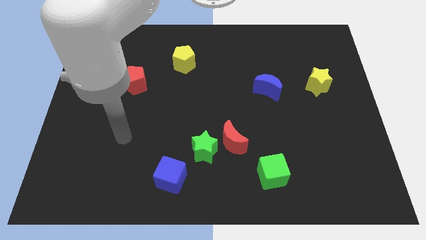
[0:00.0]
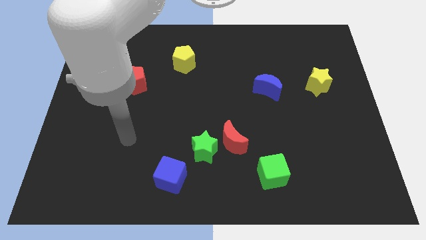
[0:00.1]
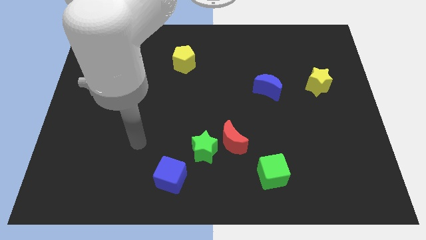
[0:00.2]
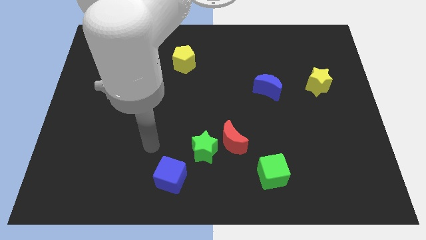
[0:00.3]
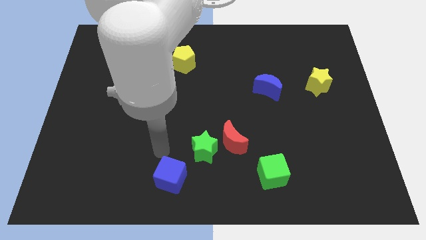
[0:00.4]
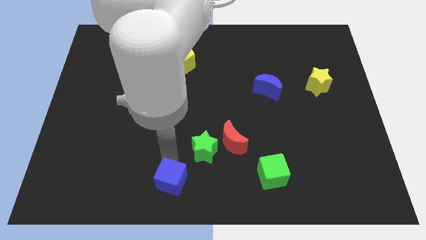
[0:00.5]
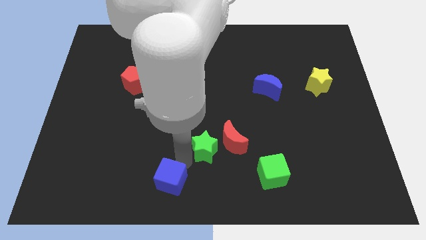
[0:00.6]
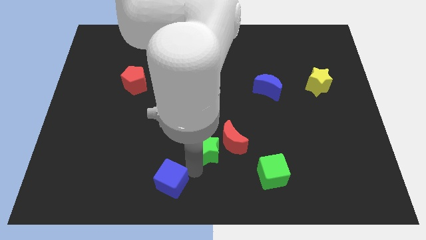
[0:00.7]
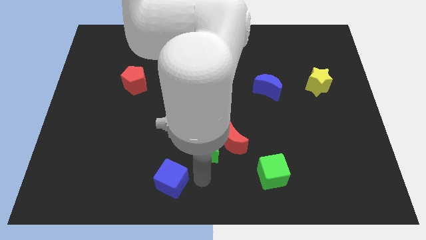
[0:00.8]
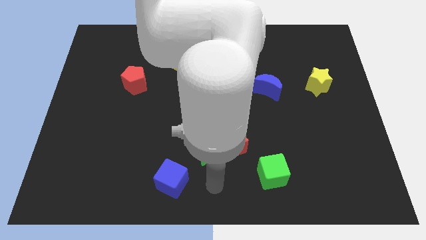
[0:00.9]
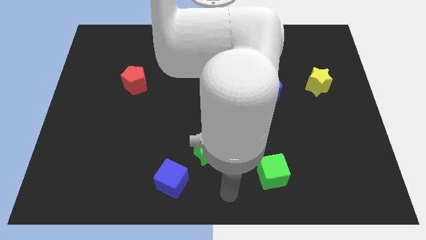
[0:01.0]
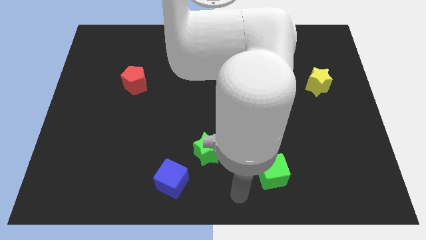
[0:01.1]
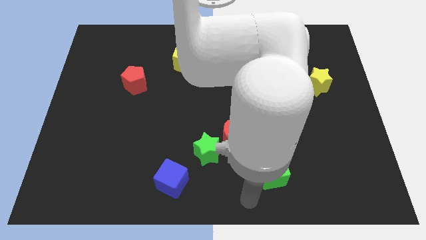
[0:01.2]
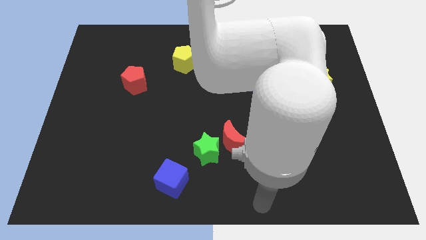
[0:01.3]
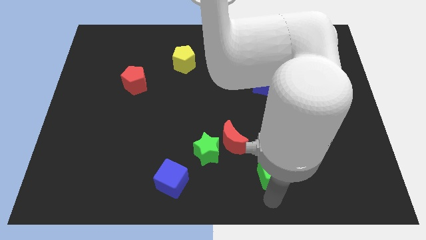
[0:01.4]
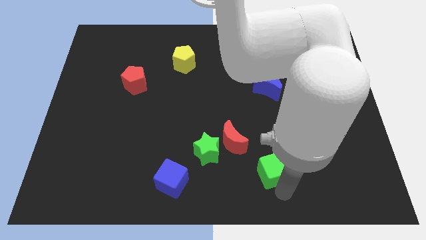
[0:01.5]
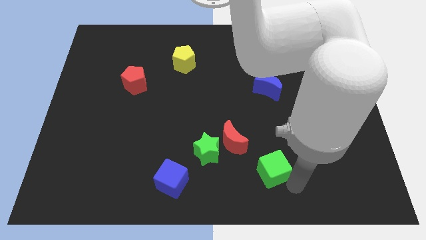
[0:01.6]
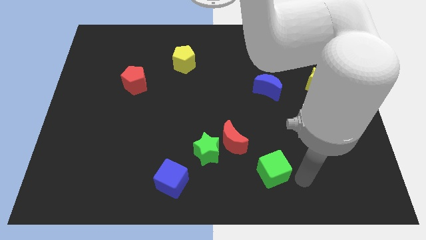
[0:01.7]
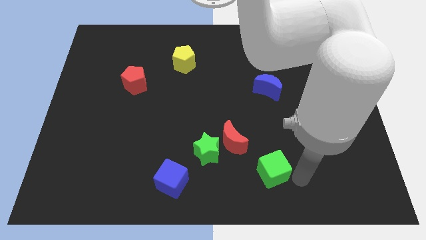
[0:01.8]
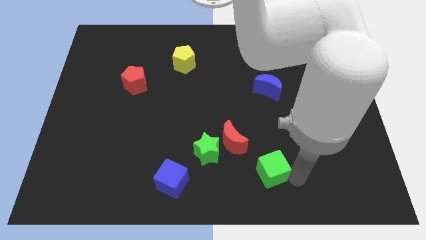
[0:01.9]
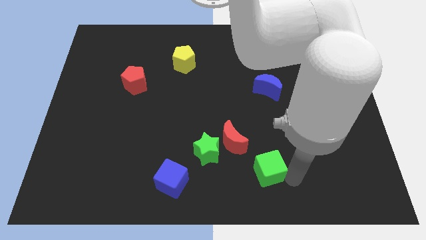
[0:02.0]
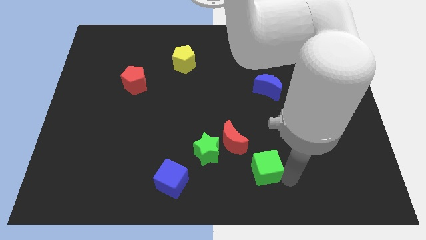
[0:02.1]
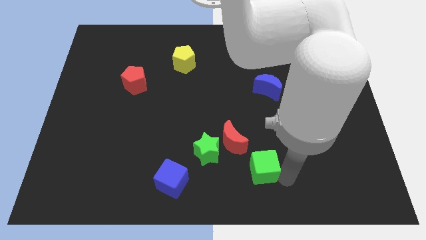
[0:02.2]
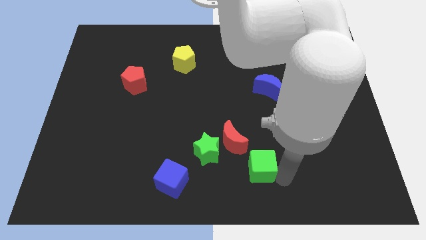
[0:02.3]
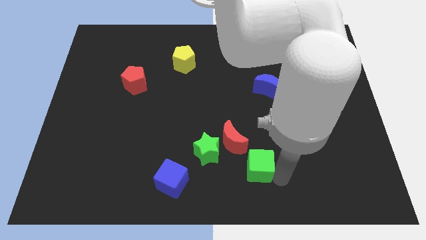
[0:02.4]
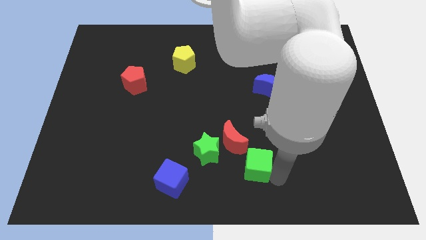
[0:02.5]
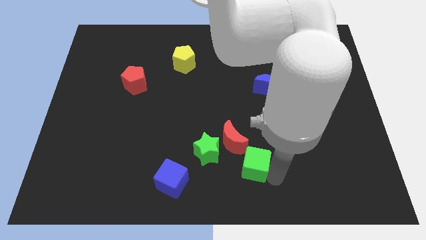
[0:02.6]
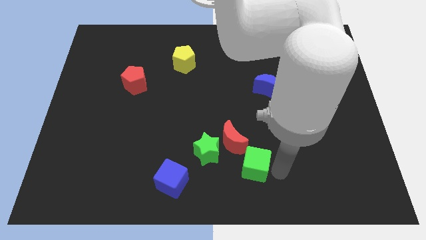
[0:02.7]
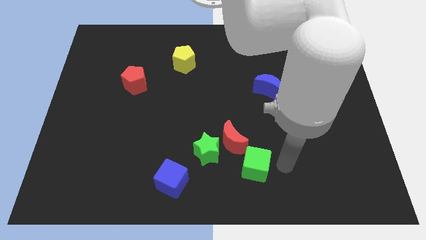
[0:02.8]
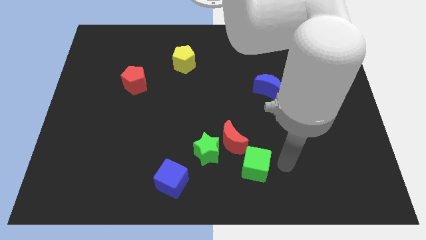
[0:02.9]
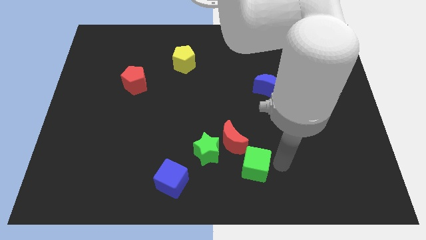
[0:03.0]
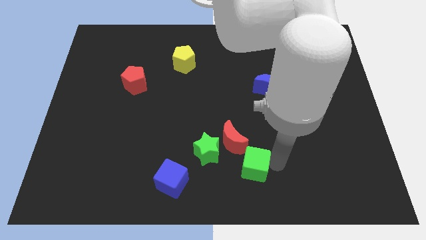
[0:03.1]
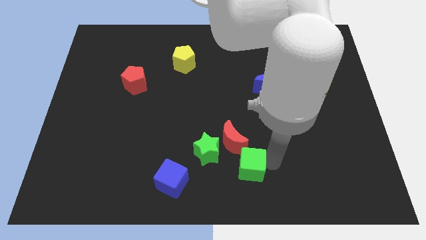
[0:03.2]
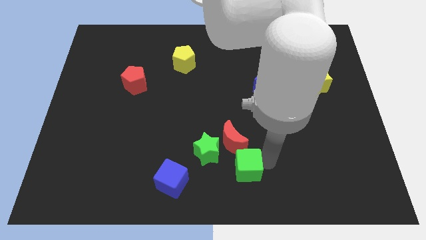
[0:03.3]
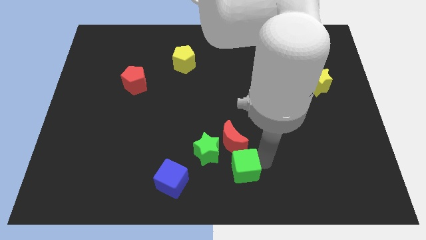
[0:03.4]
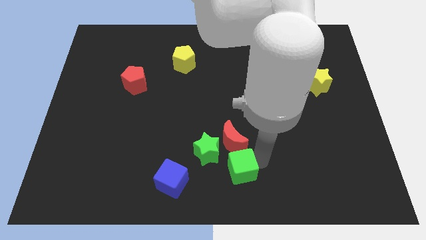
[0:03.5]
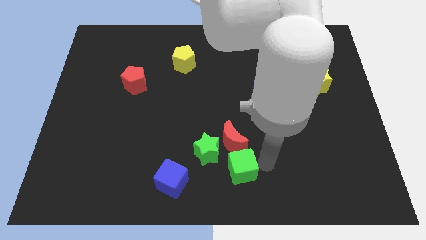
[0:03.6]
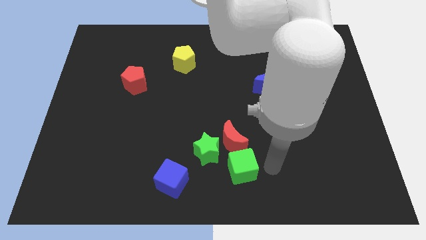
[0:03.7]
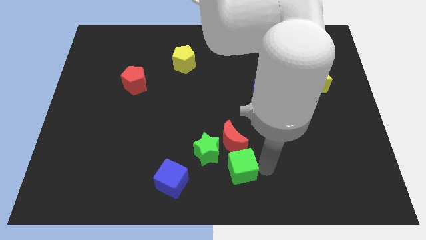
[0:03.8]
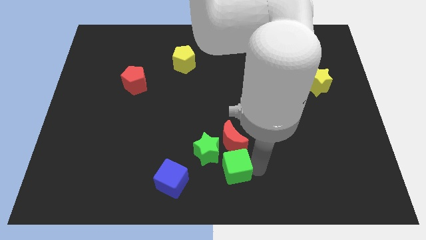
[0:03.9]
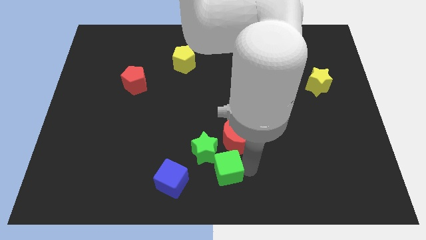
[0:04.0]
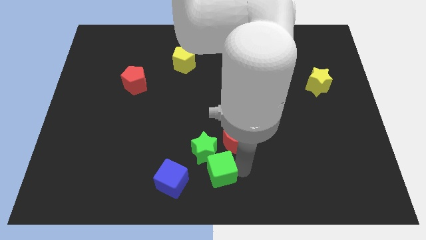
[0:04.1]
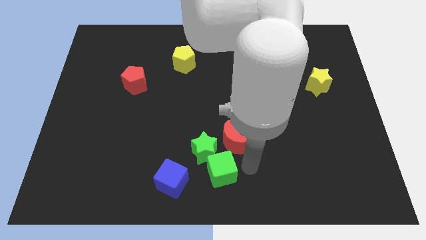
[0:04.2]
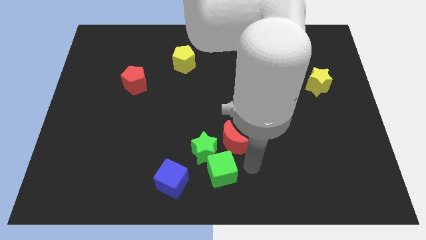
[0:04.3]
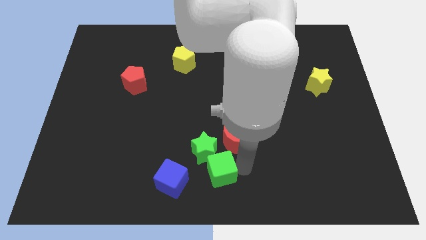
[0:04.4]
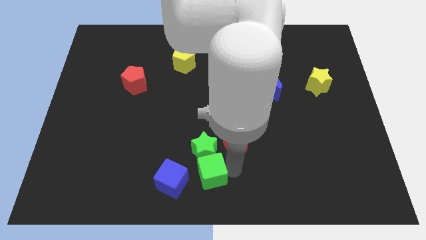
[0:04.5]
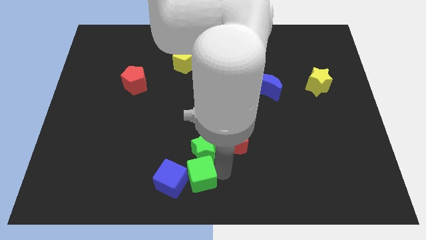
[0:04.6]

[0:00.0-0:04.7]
put the green cube to the blue cube

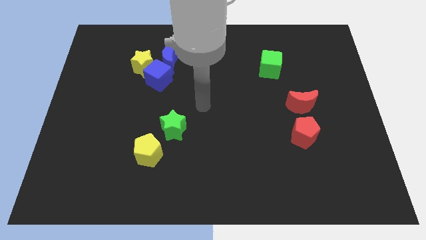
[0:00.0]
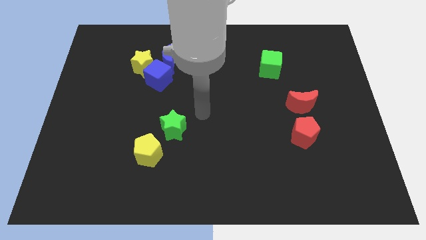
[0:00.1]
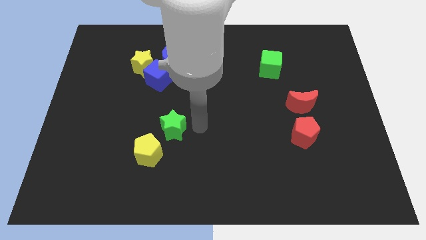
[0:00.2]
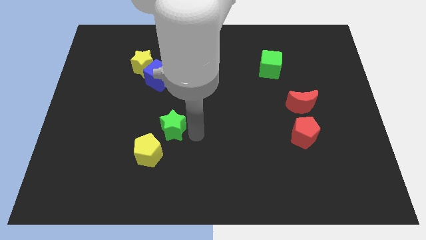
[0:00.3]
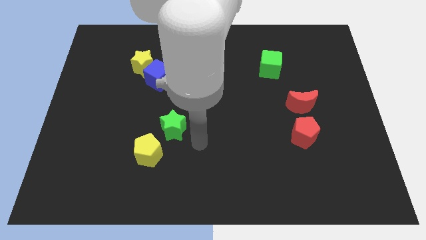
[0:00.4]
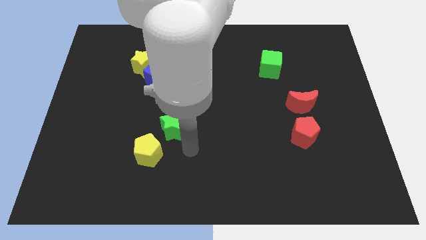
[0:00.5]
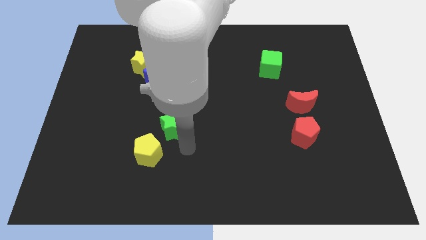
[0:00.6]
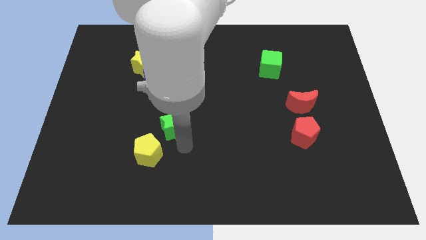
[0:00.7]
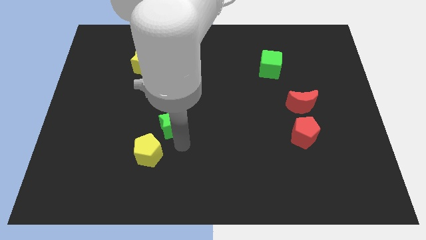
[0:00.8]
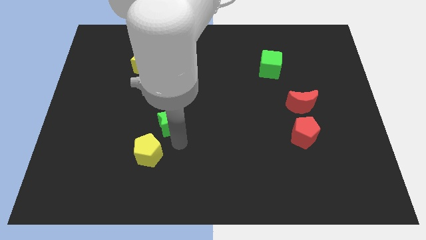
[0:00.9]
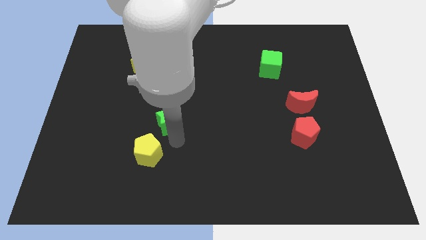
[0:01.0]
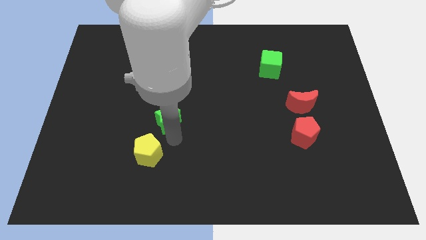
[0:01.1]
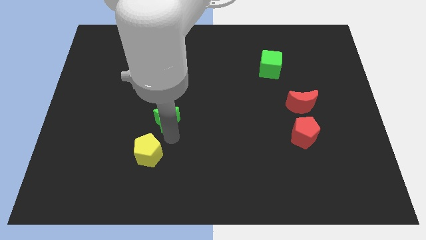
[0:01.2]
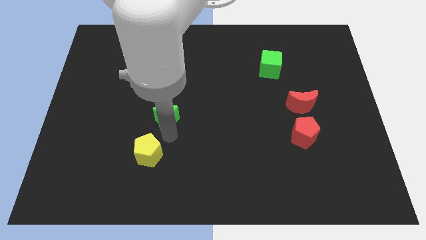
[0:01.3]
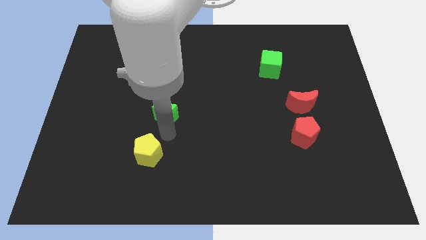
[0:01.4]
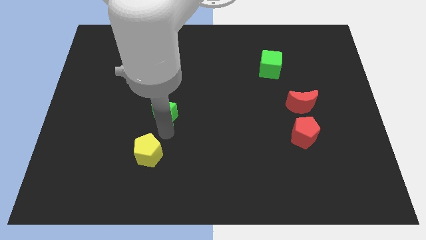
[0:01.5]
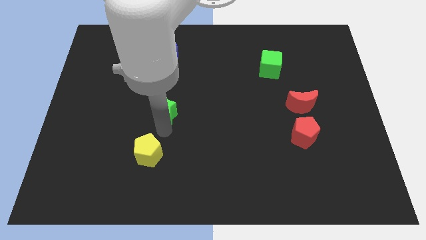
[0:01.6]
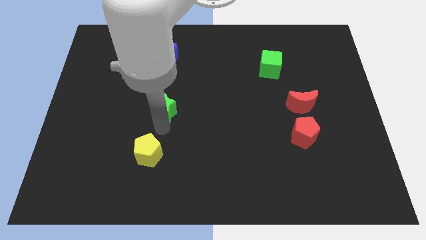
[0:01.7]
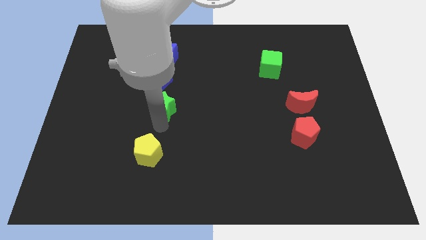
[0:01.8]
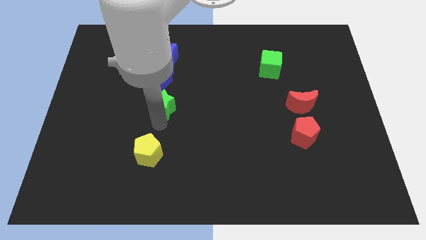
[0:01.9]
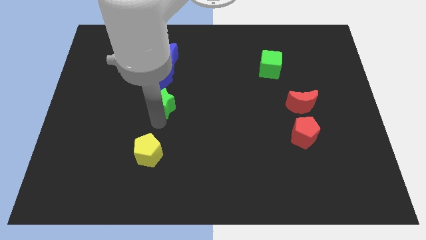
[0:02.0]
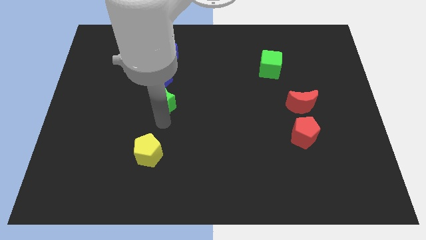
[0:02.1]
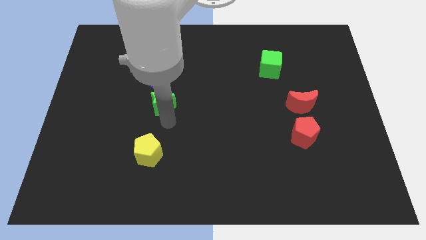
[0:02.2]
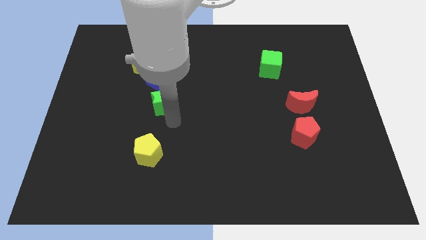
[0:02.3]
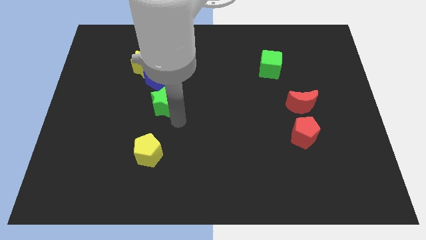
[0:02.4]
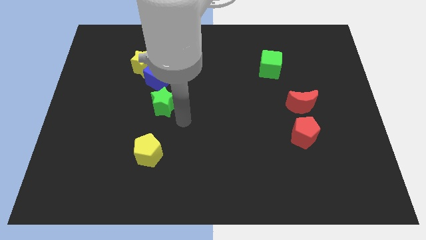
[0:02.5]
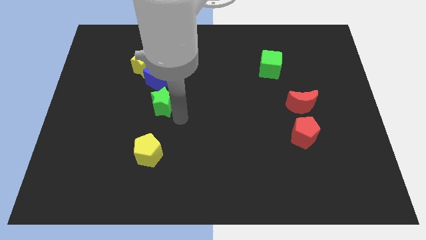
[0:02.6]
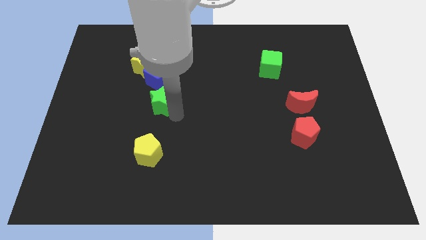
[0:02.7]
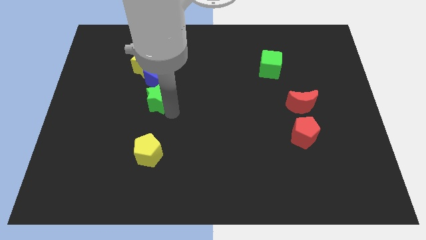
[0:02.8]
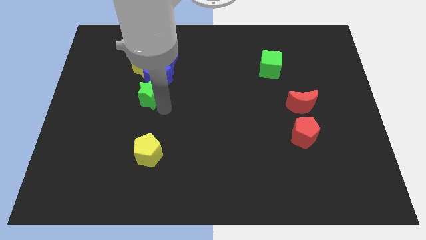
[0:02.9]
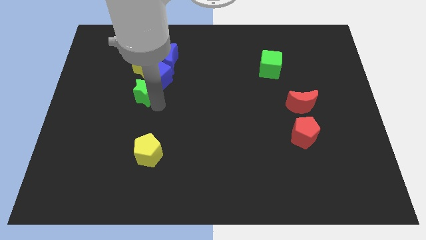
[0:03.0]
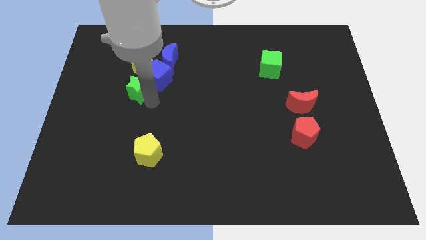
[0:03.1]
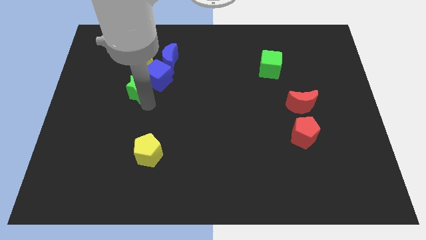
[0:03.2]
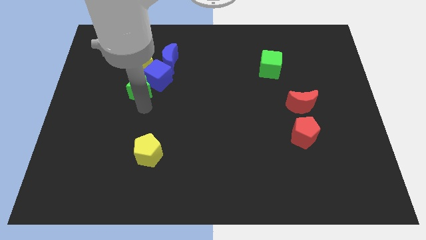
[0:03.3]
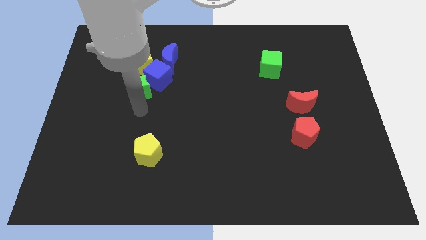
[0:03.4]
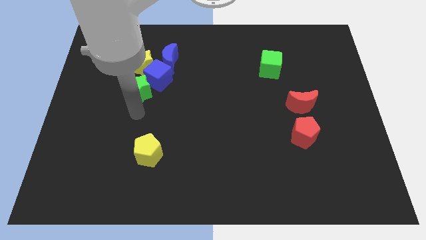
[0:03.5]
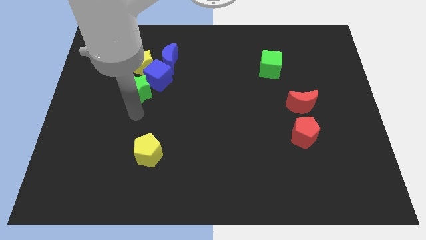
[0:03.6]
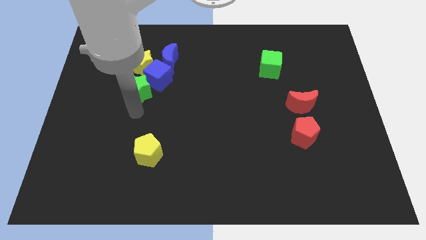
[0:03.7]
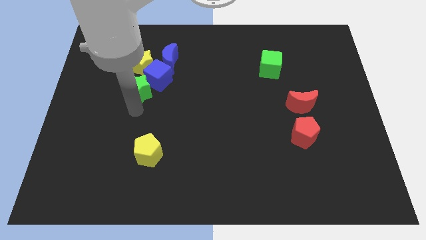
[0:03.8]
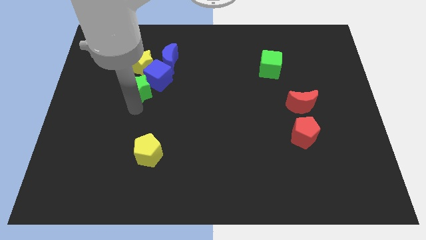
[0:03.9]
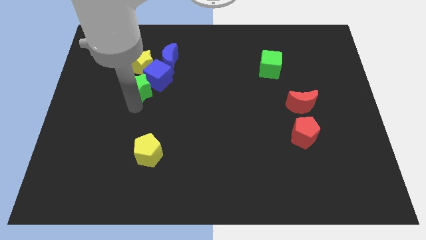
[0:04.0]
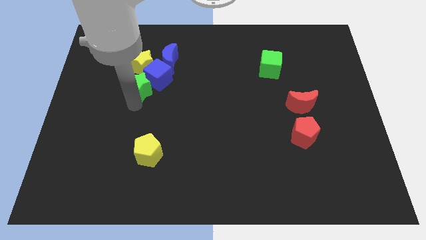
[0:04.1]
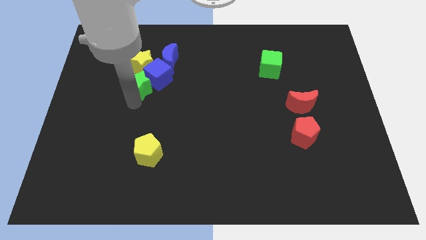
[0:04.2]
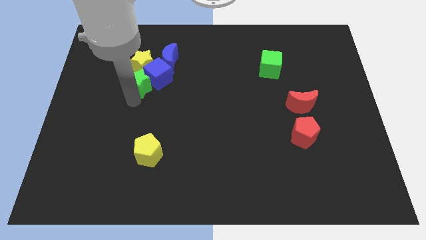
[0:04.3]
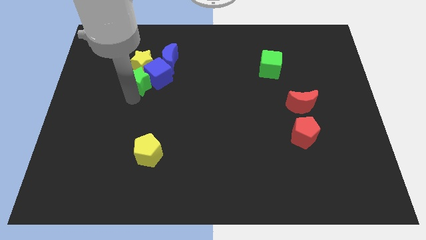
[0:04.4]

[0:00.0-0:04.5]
put the green star towards the yellow star
